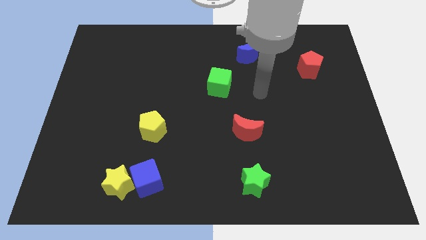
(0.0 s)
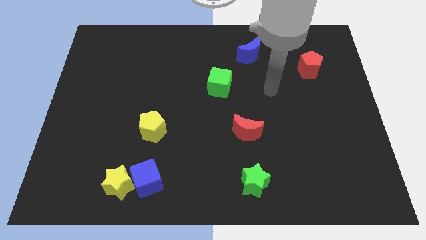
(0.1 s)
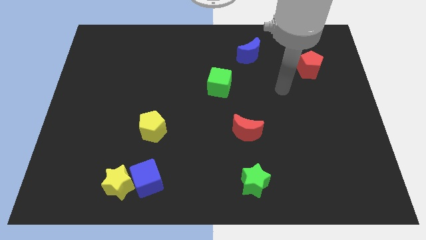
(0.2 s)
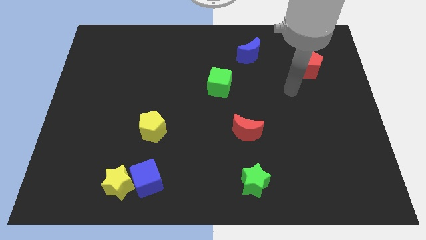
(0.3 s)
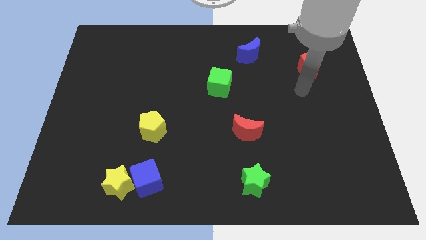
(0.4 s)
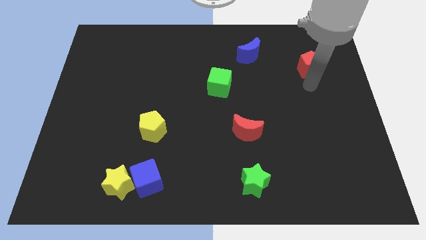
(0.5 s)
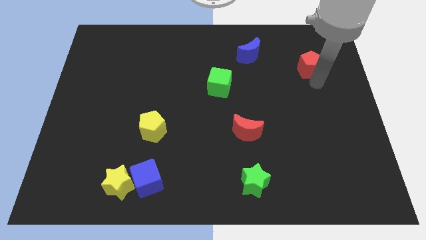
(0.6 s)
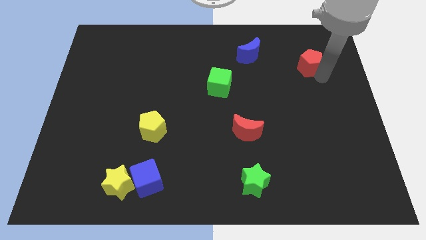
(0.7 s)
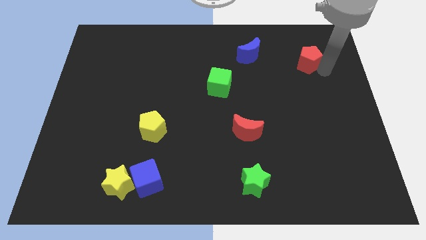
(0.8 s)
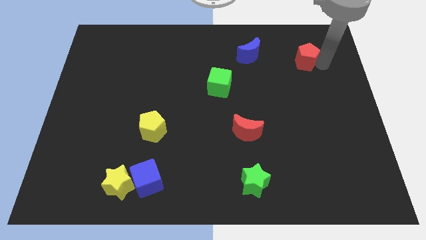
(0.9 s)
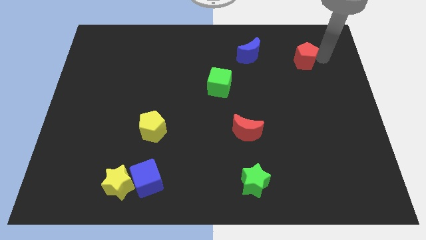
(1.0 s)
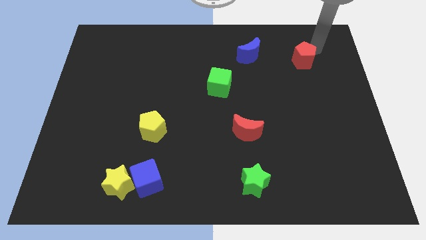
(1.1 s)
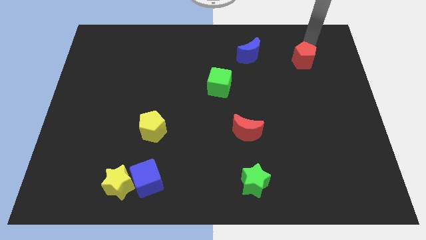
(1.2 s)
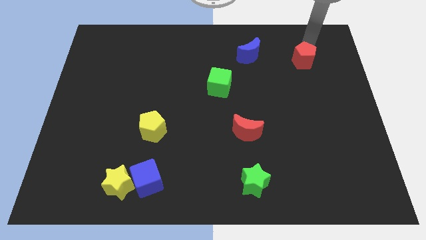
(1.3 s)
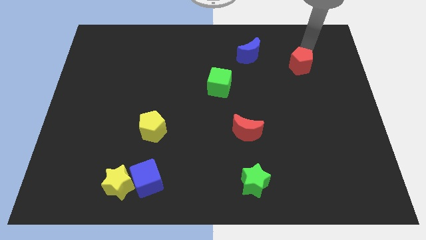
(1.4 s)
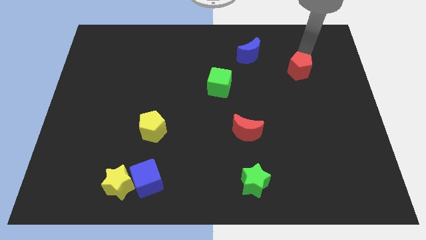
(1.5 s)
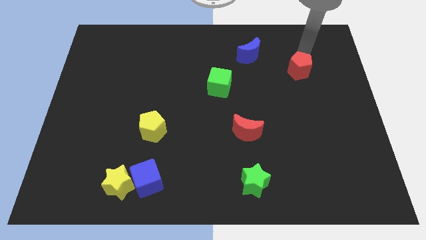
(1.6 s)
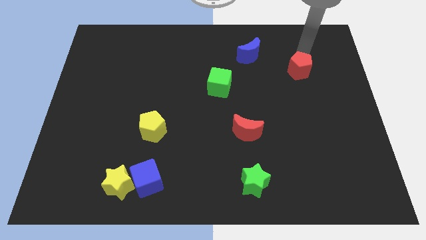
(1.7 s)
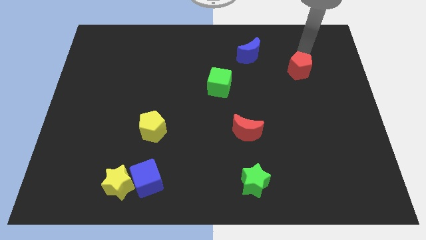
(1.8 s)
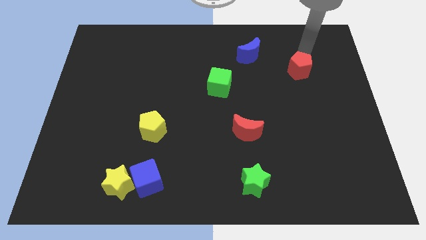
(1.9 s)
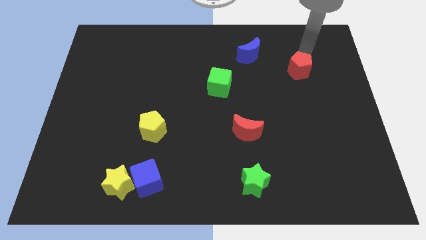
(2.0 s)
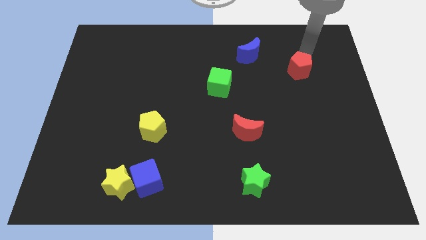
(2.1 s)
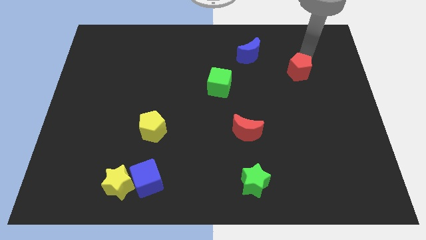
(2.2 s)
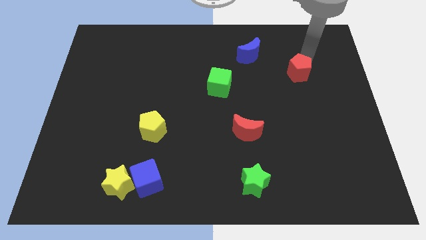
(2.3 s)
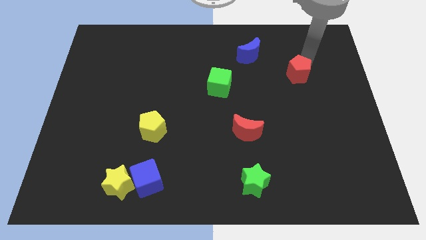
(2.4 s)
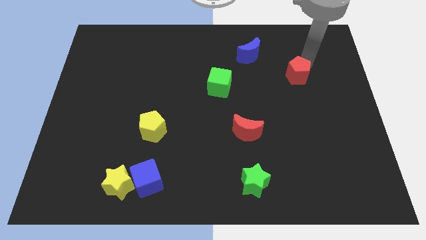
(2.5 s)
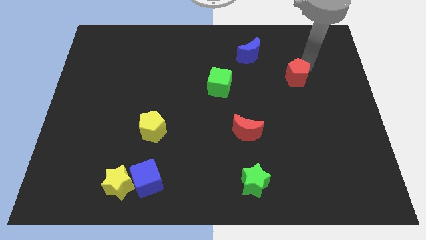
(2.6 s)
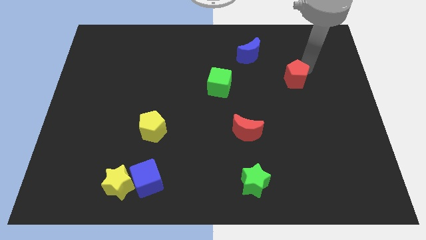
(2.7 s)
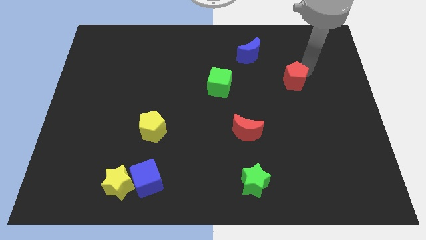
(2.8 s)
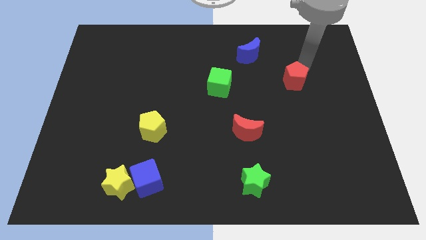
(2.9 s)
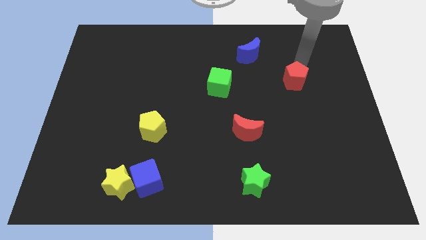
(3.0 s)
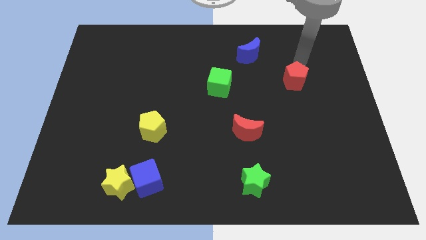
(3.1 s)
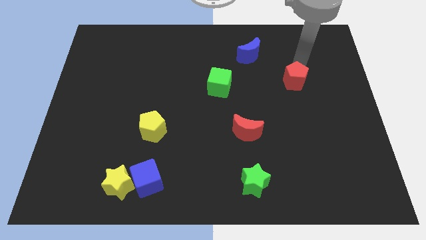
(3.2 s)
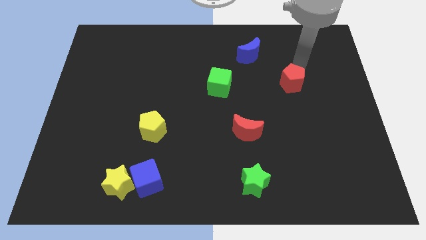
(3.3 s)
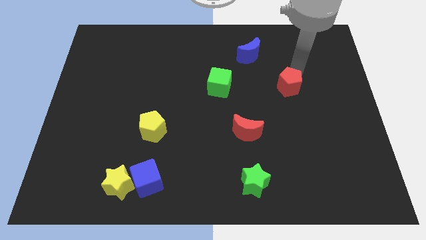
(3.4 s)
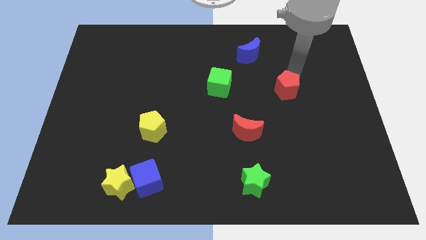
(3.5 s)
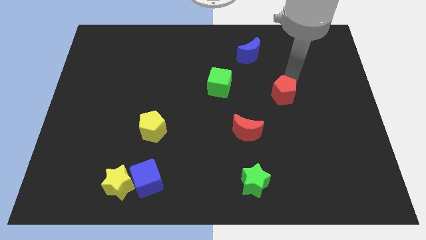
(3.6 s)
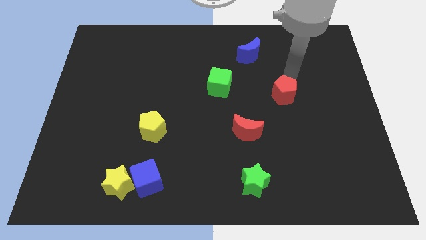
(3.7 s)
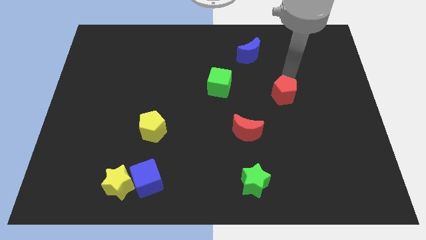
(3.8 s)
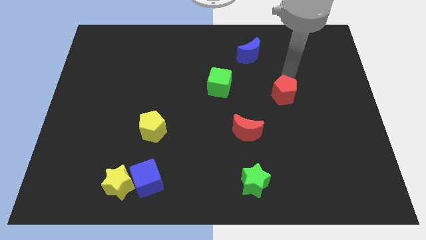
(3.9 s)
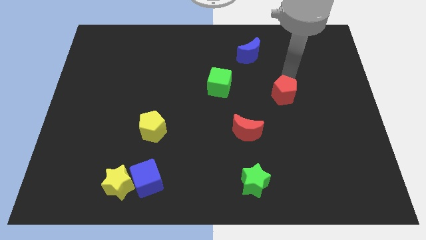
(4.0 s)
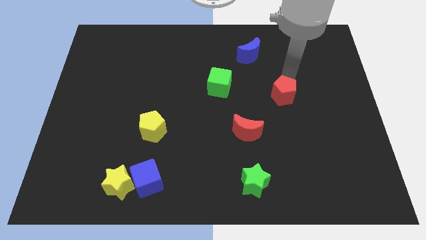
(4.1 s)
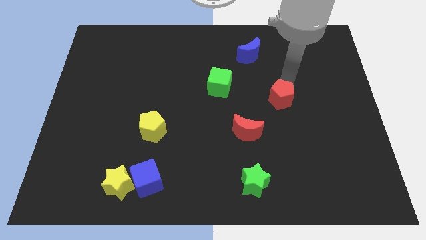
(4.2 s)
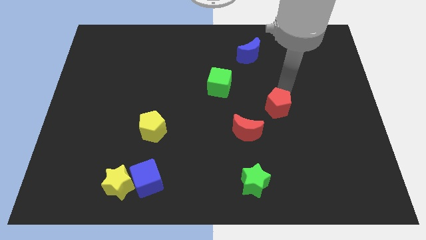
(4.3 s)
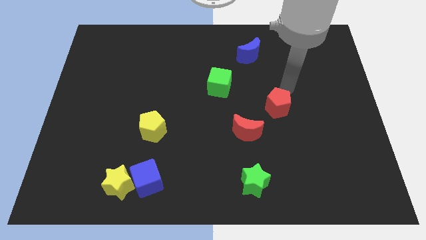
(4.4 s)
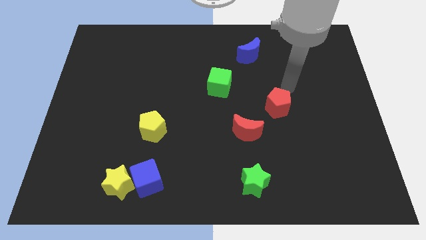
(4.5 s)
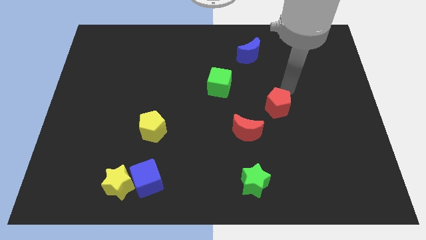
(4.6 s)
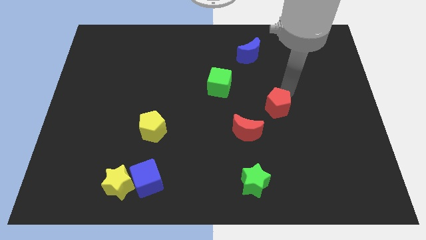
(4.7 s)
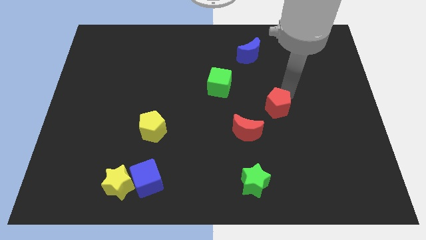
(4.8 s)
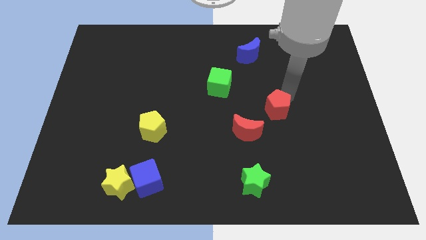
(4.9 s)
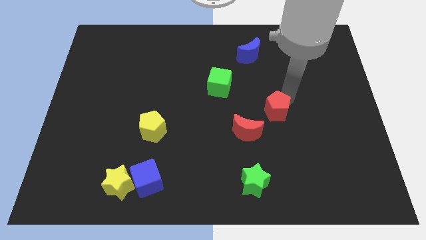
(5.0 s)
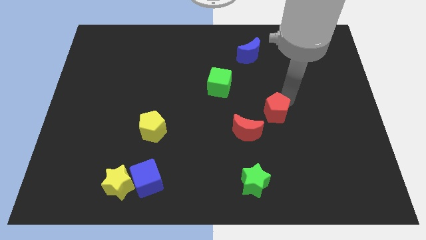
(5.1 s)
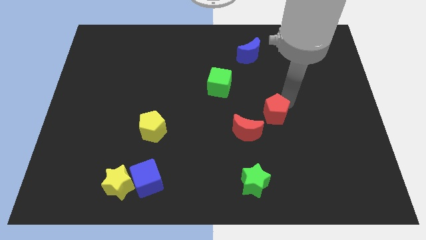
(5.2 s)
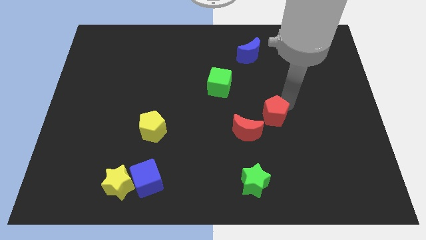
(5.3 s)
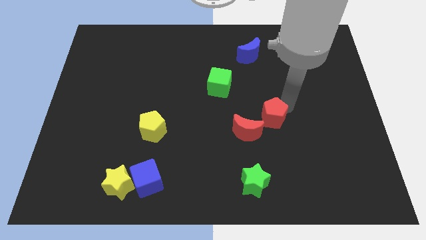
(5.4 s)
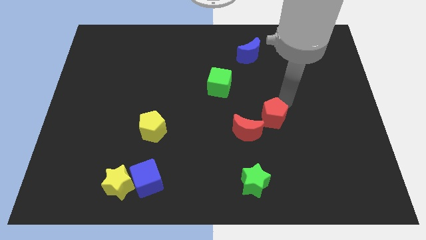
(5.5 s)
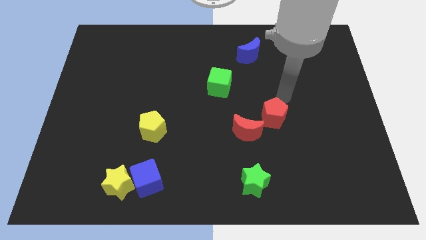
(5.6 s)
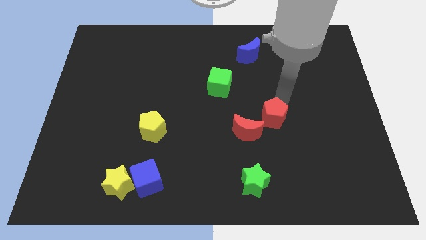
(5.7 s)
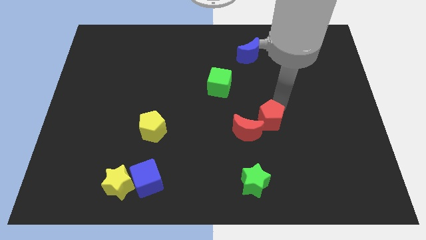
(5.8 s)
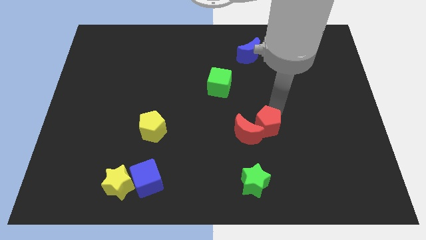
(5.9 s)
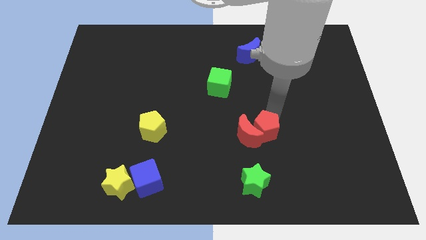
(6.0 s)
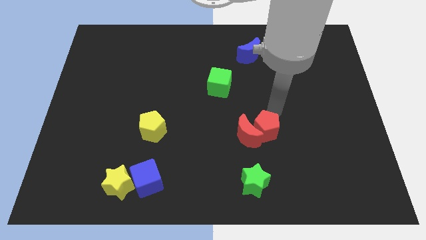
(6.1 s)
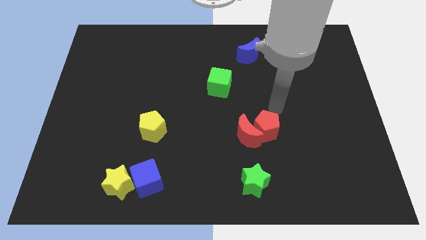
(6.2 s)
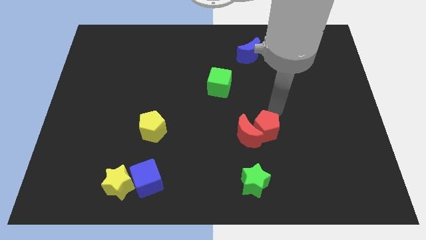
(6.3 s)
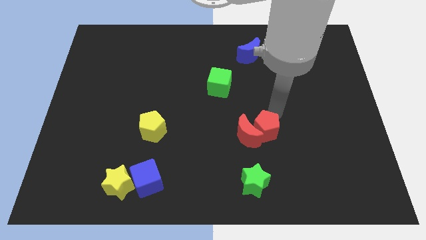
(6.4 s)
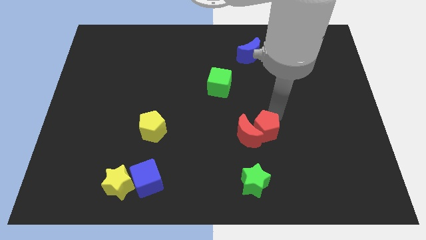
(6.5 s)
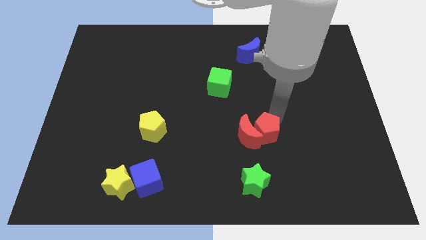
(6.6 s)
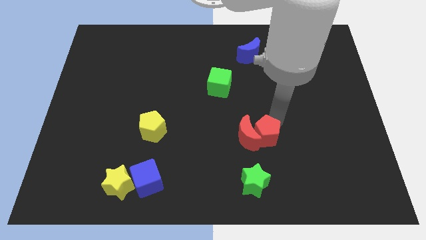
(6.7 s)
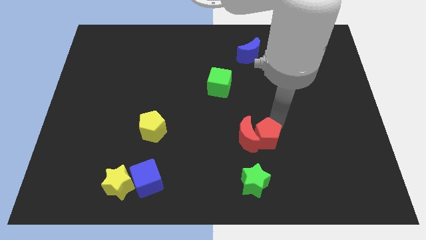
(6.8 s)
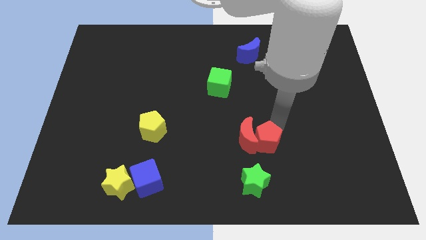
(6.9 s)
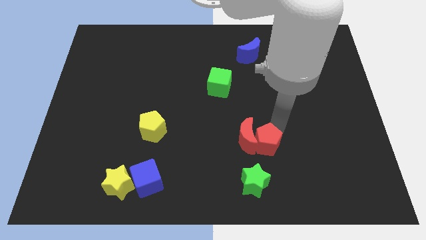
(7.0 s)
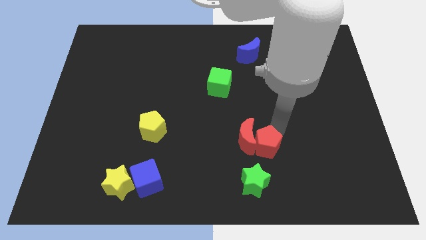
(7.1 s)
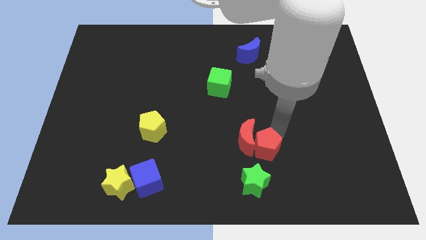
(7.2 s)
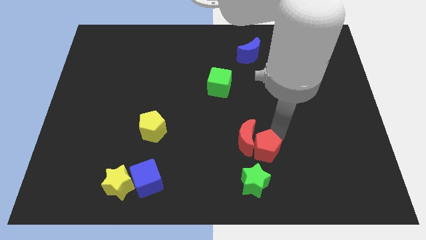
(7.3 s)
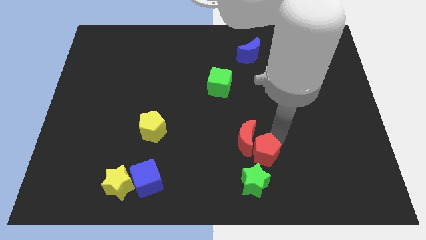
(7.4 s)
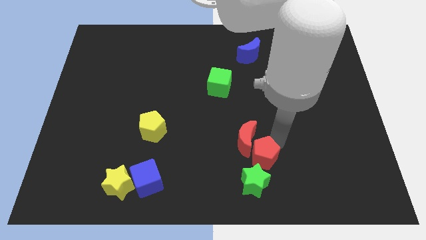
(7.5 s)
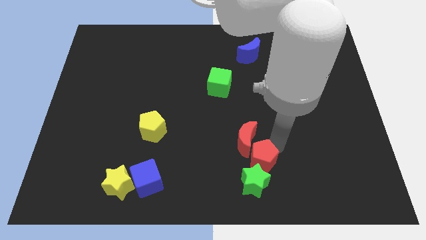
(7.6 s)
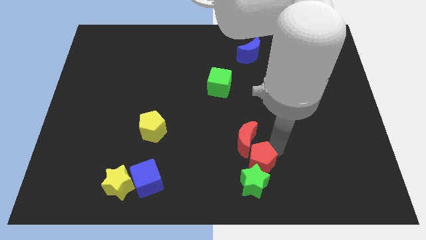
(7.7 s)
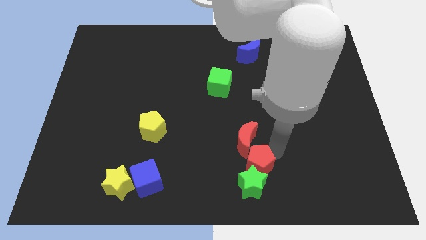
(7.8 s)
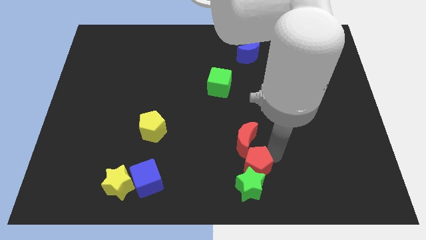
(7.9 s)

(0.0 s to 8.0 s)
move the red pentagon to the bottom

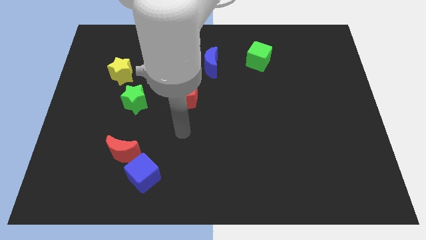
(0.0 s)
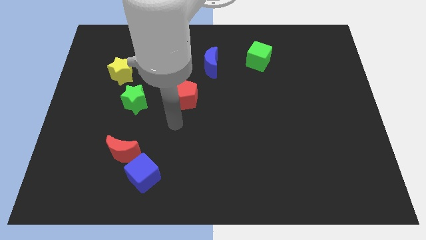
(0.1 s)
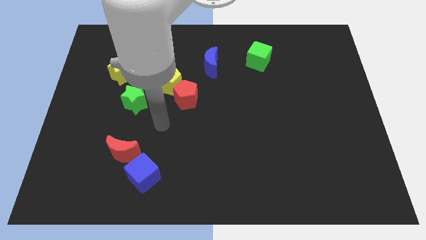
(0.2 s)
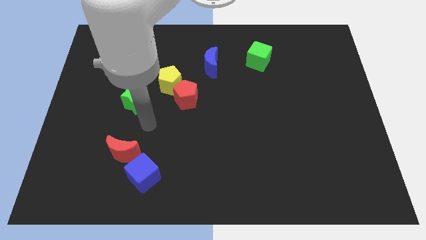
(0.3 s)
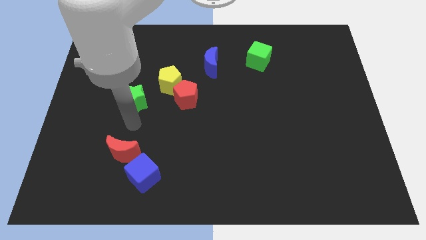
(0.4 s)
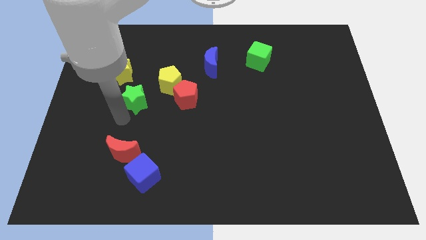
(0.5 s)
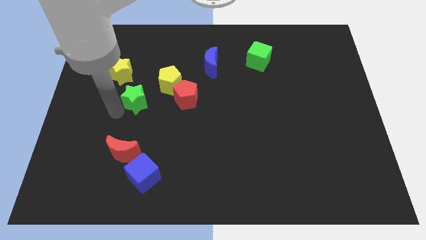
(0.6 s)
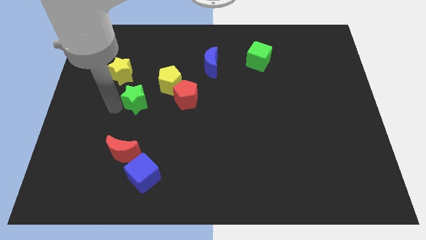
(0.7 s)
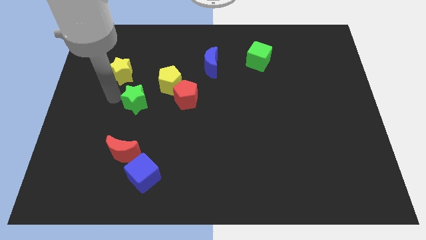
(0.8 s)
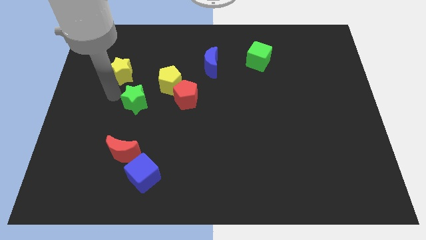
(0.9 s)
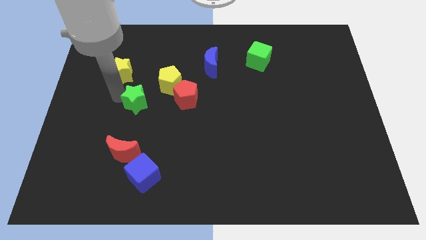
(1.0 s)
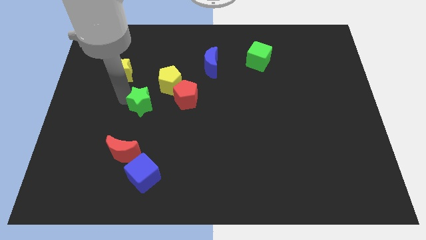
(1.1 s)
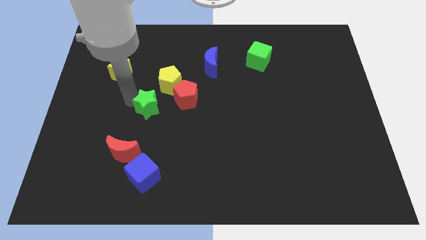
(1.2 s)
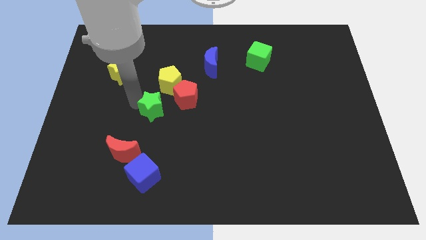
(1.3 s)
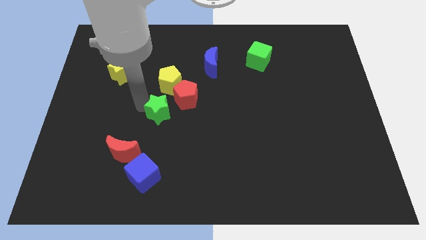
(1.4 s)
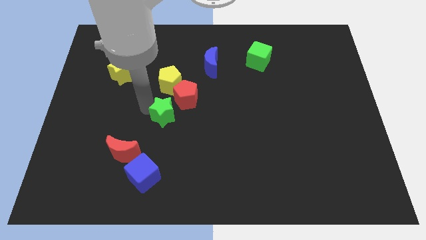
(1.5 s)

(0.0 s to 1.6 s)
put the green star to the center
